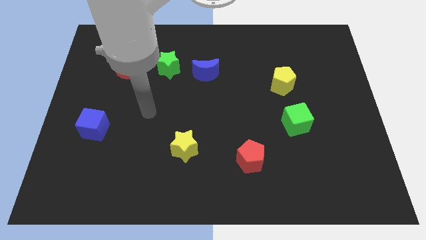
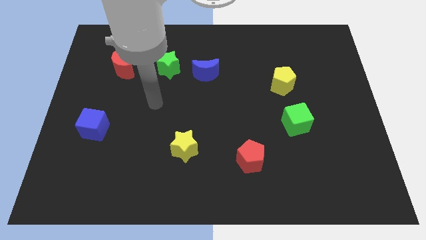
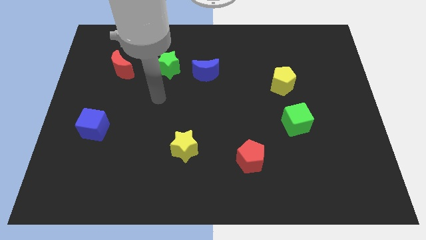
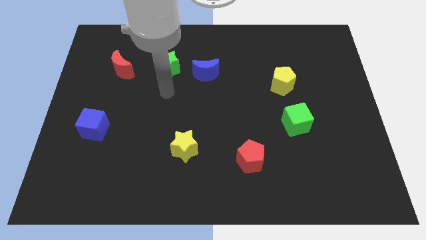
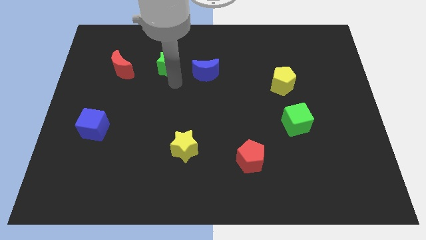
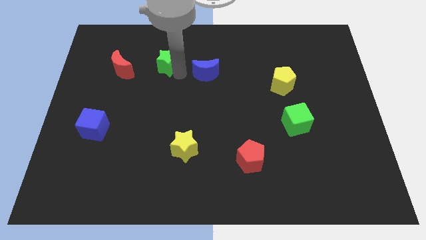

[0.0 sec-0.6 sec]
move the blue moon away from the green star

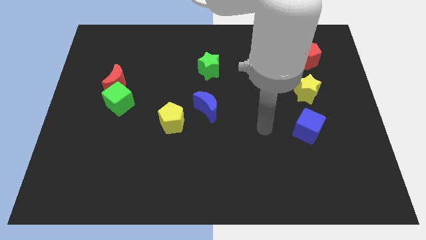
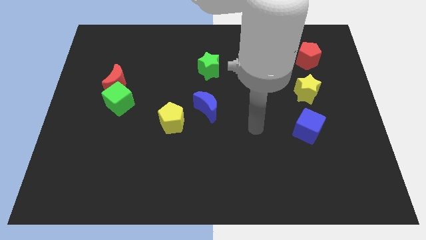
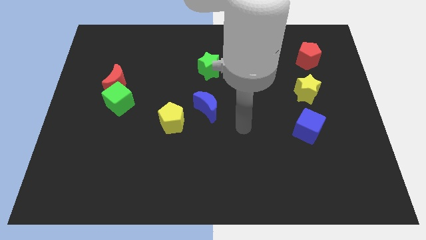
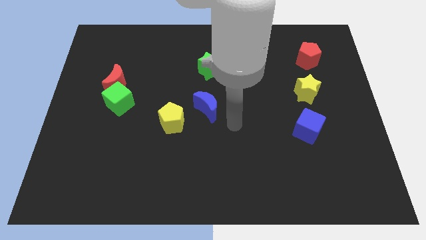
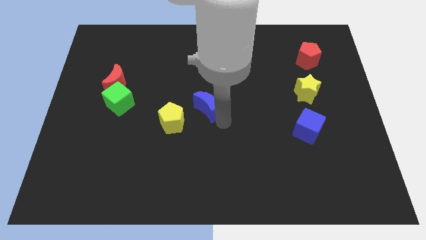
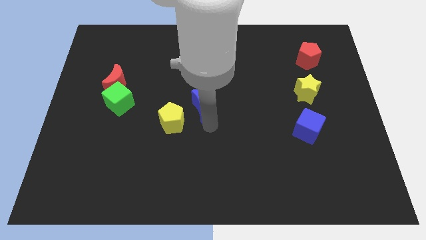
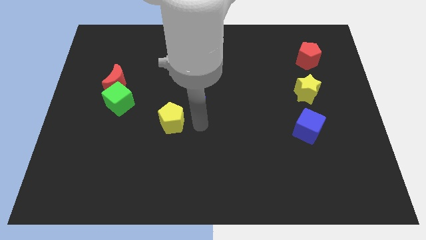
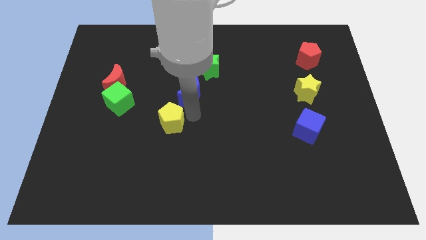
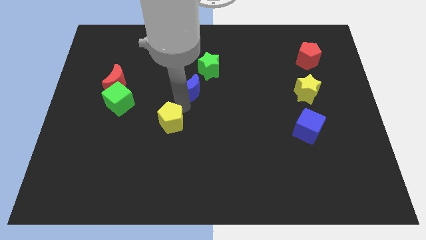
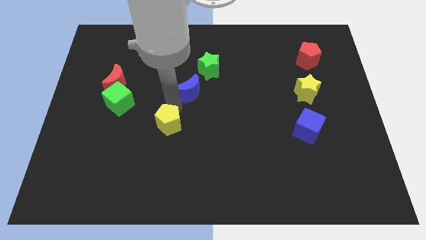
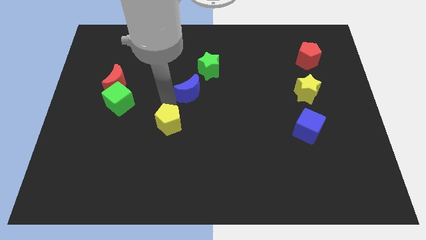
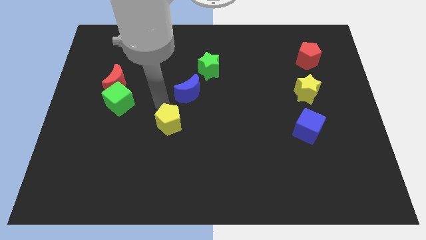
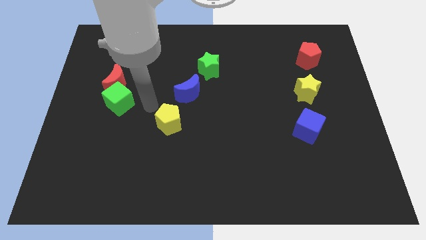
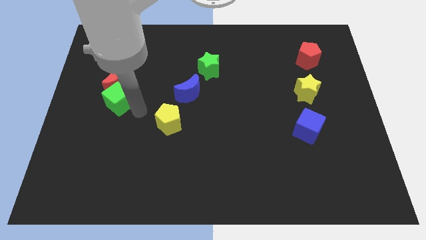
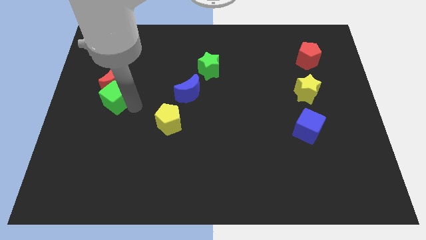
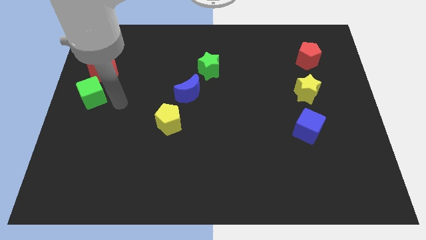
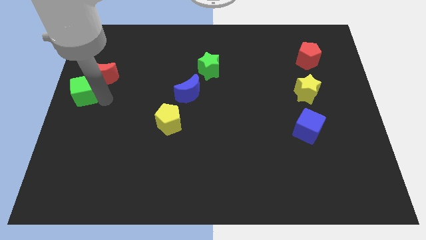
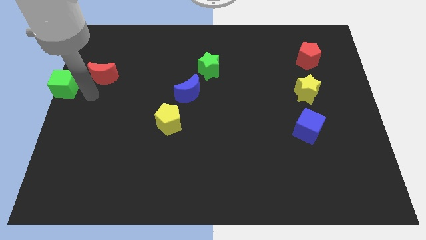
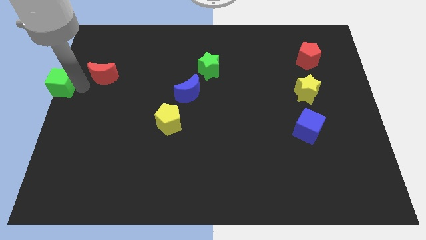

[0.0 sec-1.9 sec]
pull the red moon apart from the green cube

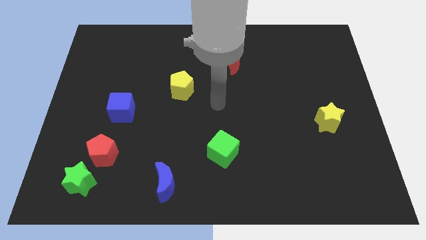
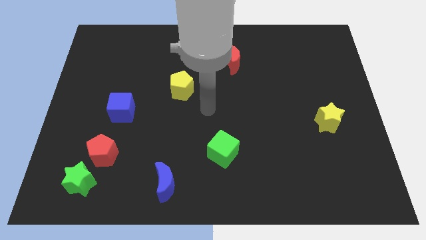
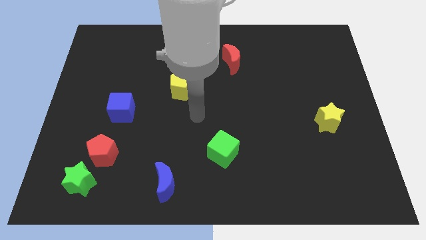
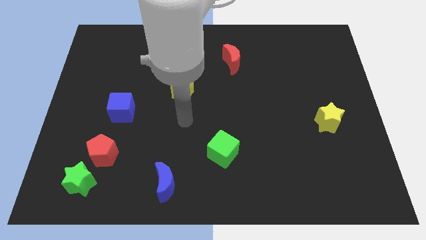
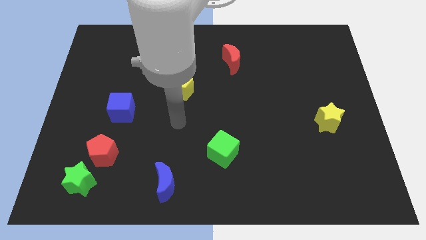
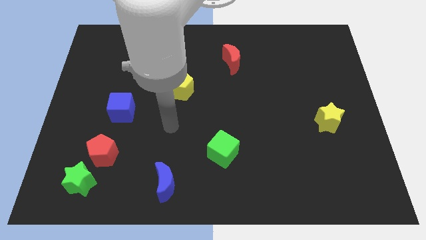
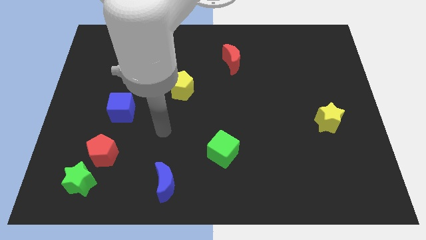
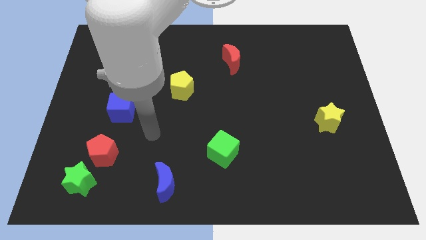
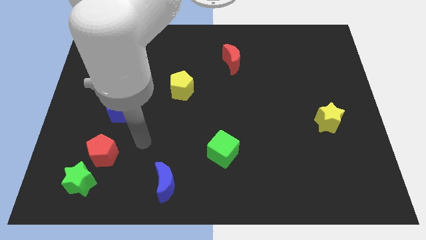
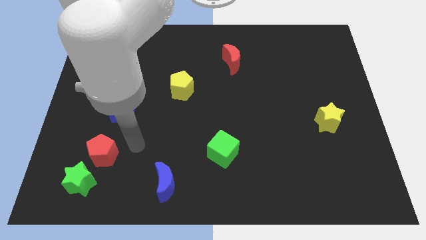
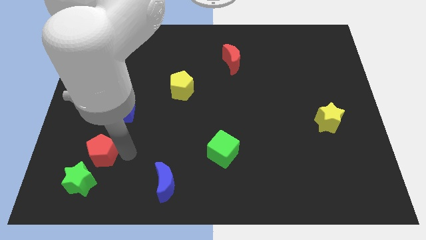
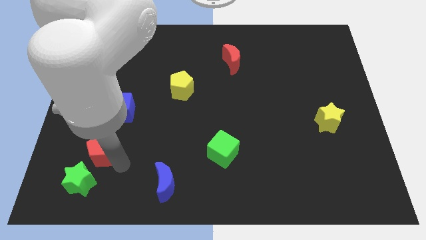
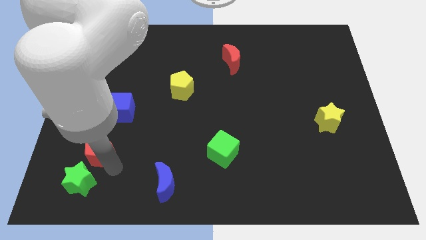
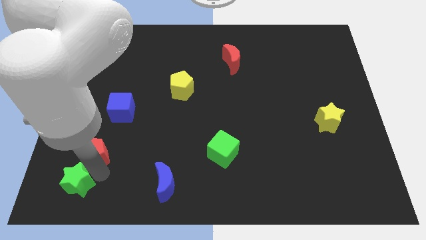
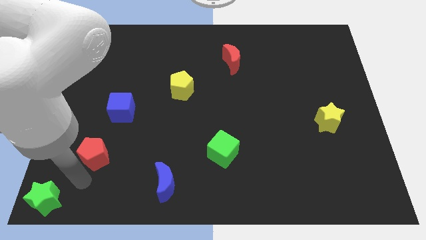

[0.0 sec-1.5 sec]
move the red pentagon away from the green star

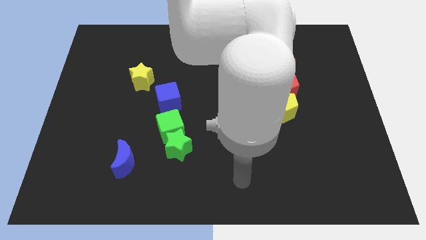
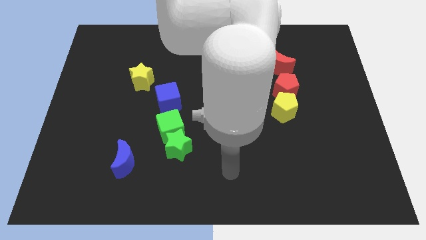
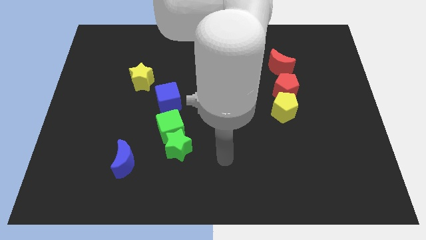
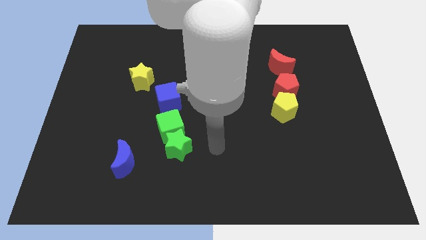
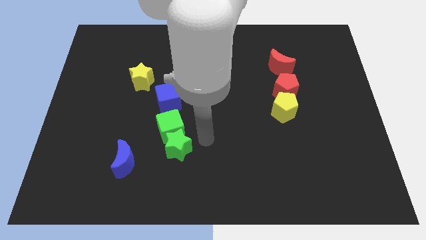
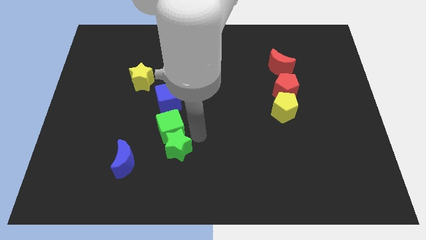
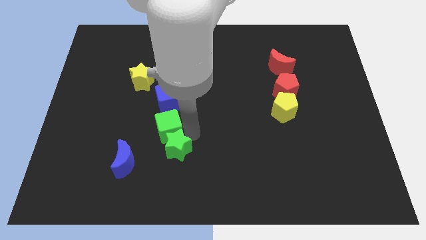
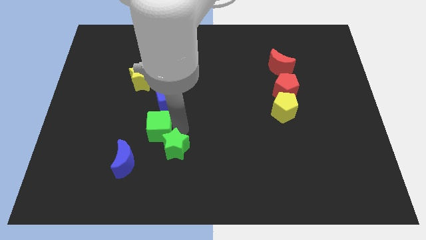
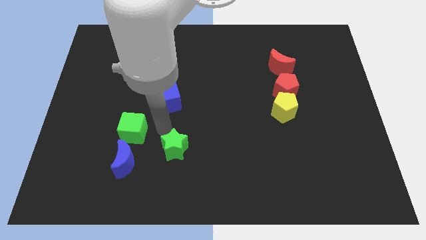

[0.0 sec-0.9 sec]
pull the green star apart from the green cube

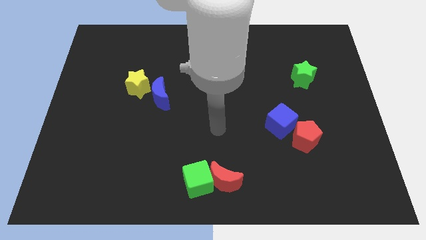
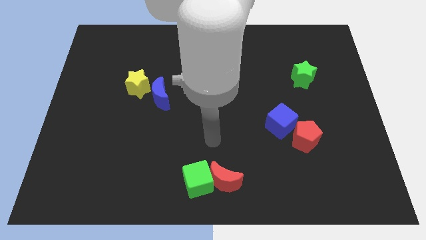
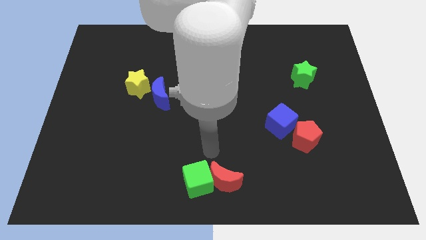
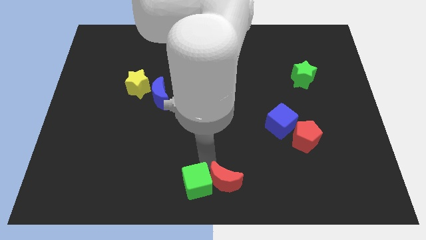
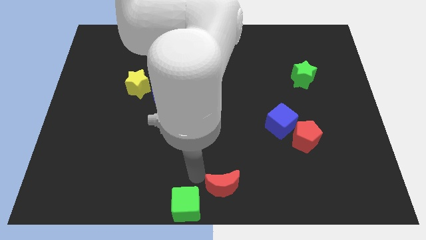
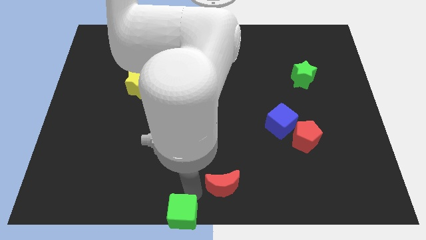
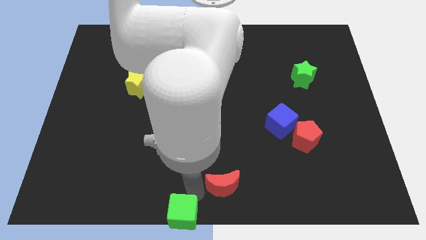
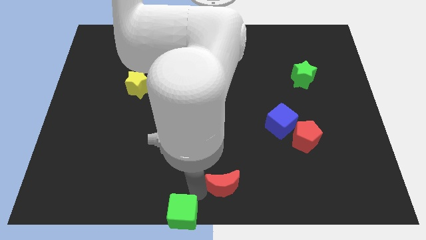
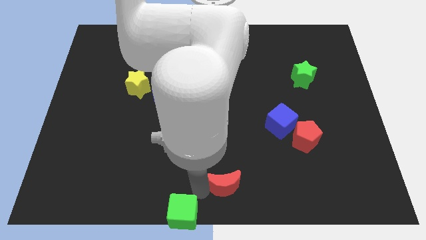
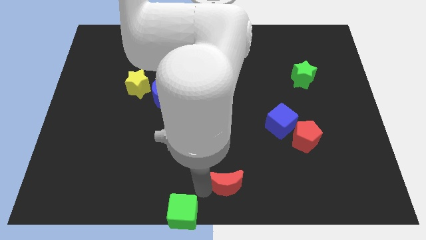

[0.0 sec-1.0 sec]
separate the red moon from the green cube

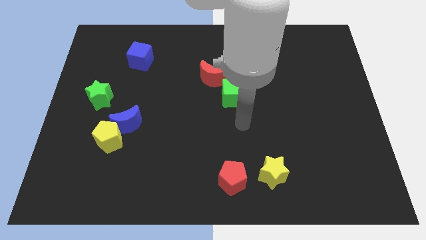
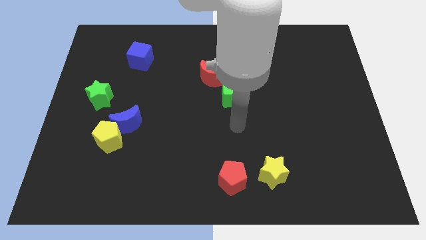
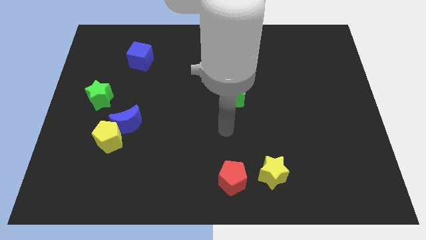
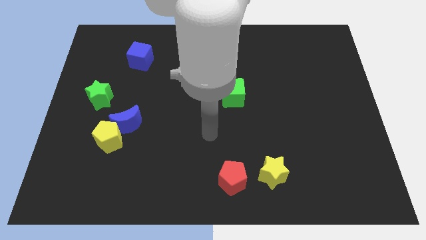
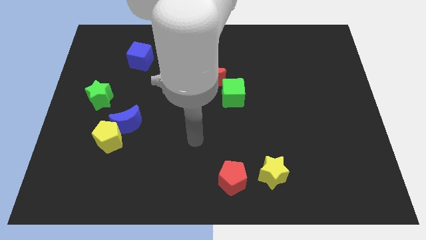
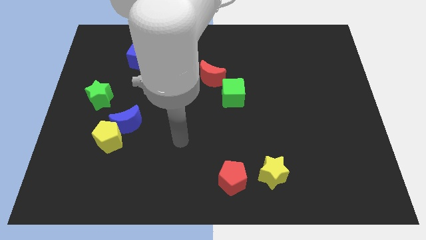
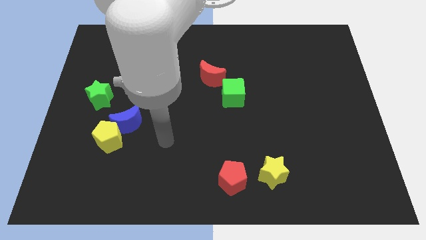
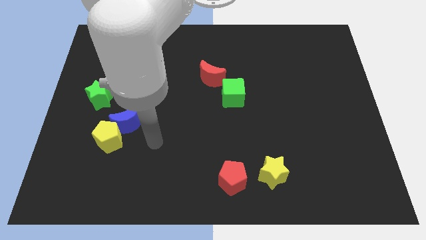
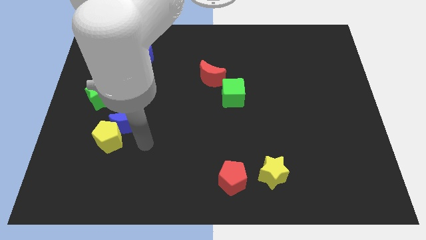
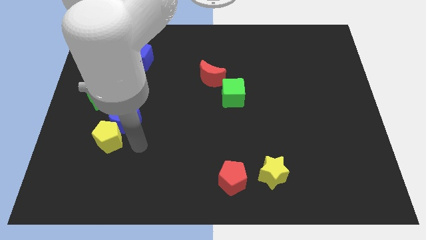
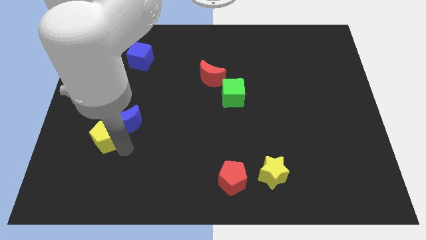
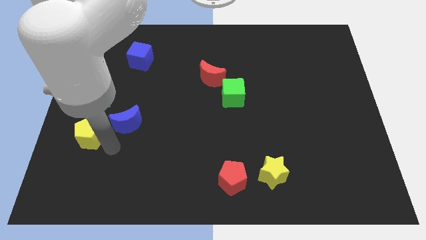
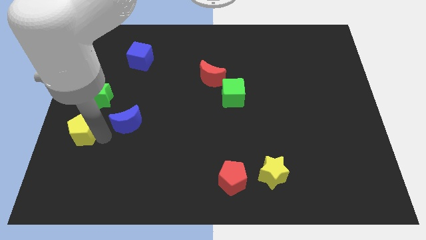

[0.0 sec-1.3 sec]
pull the blue moon apart from the yellow pentagon

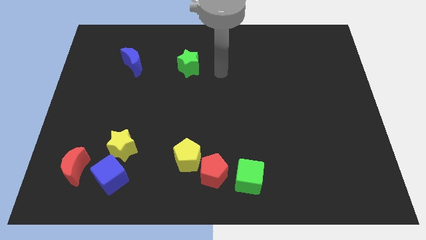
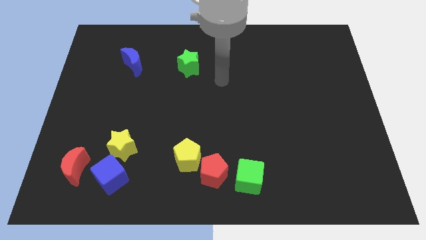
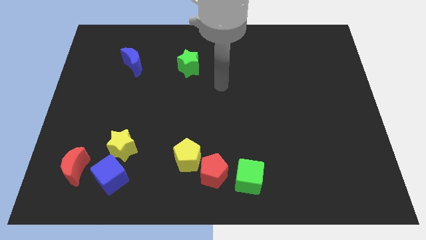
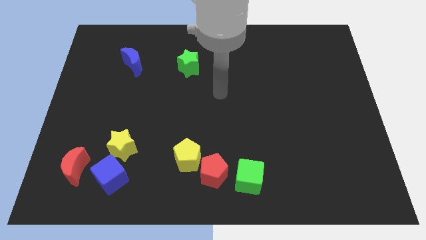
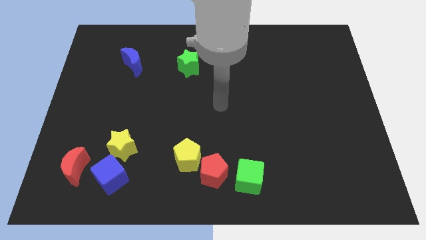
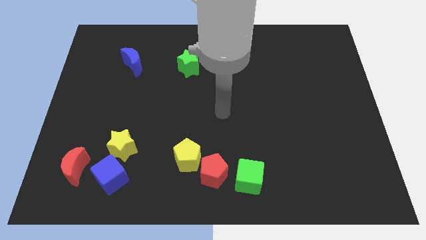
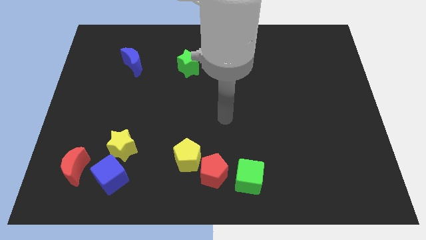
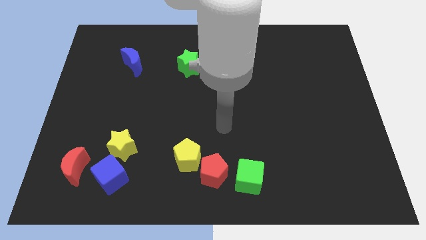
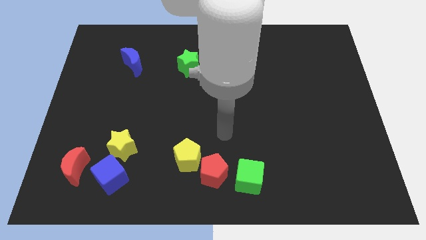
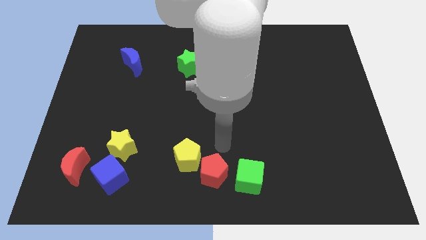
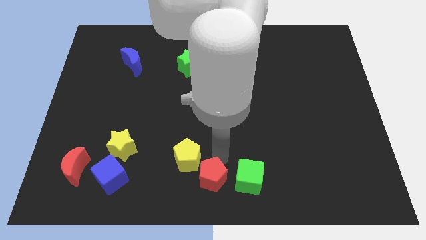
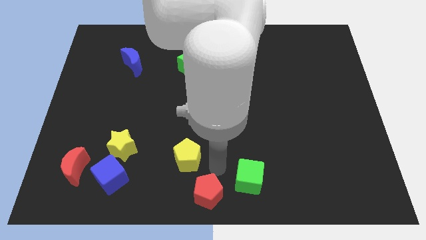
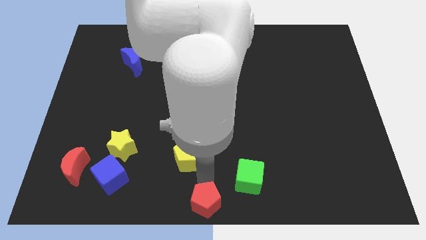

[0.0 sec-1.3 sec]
move the yellow pentagon away from the red pentagon

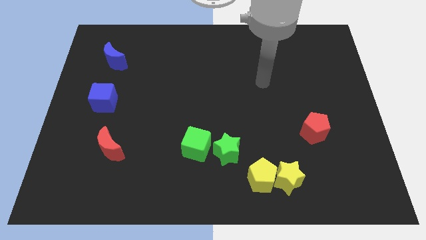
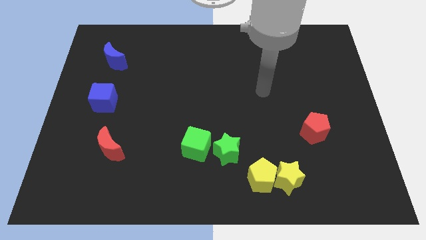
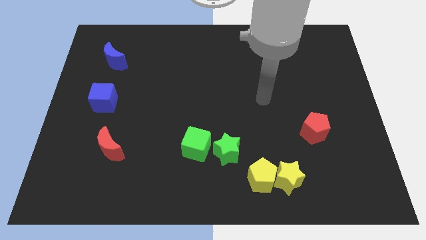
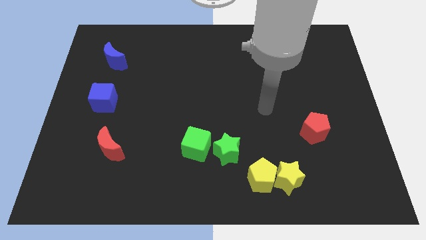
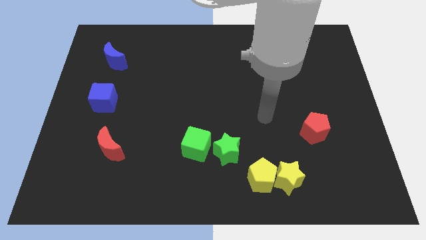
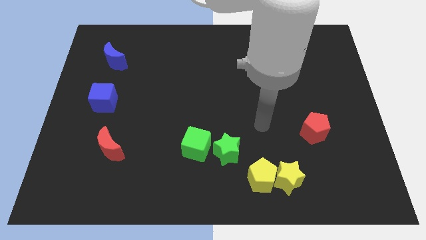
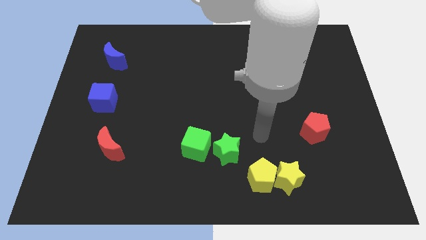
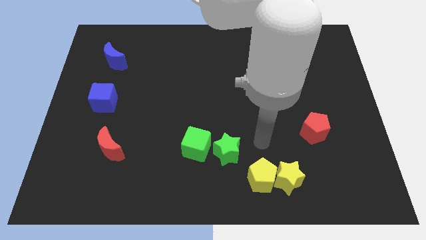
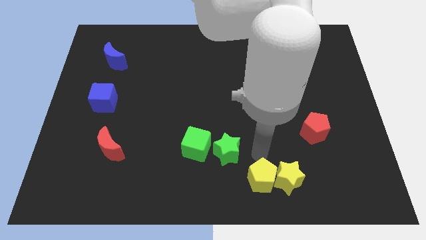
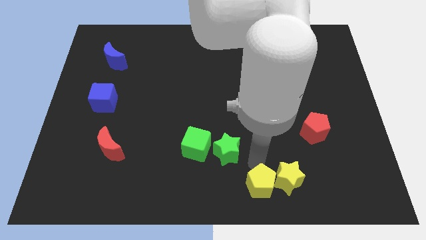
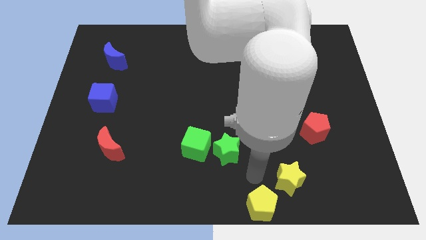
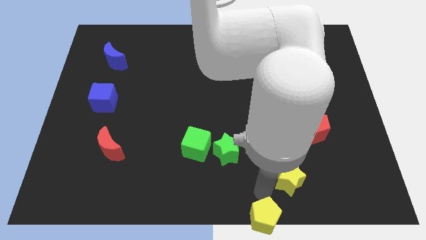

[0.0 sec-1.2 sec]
pull the yellow star apart from the yellow pentagon
